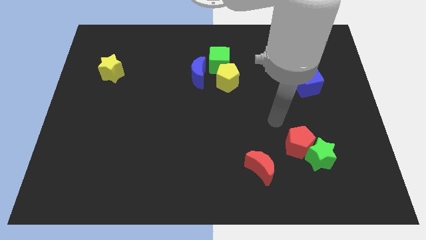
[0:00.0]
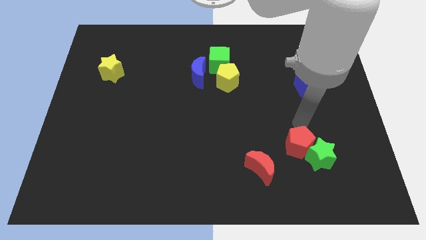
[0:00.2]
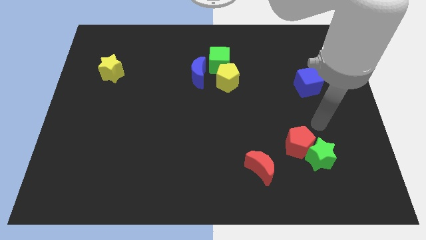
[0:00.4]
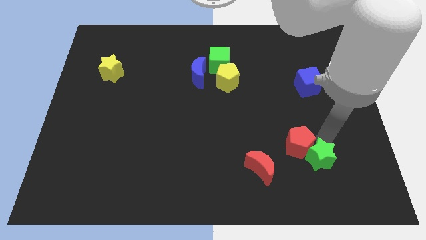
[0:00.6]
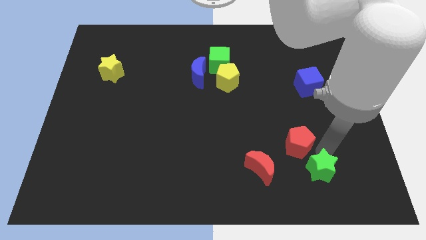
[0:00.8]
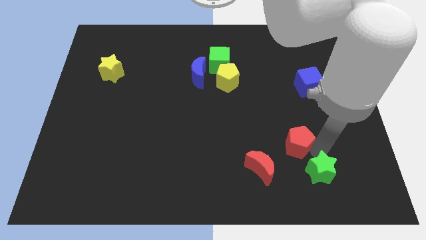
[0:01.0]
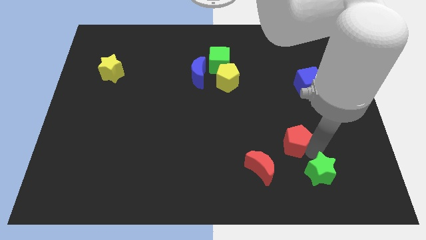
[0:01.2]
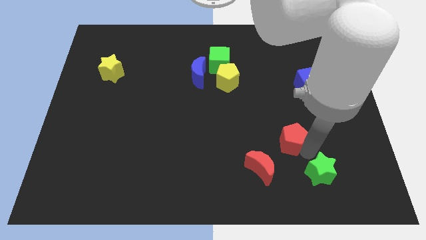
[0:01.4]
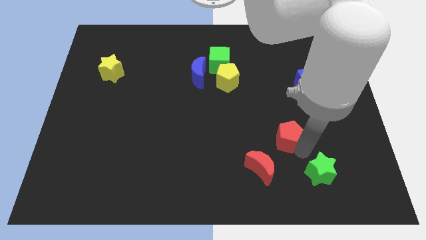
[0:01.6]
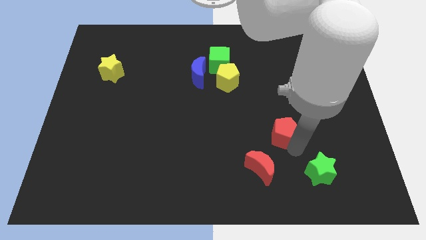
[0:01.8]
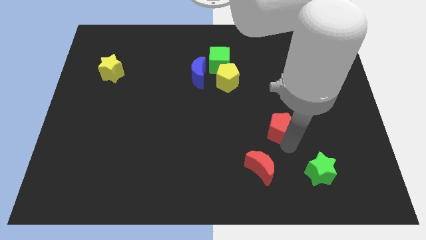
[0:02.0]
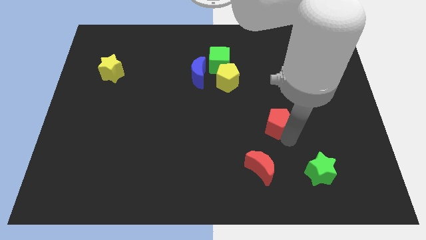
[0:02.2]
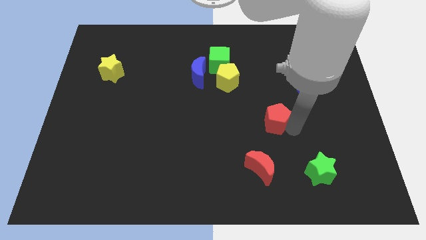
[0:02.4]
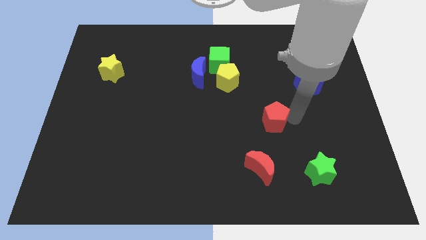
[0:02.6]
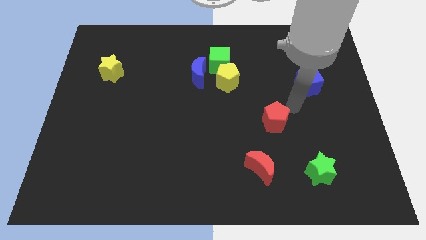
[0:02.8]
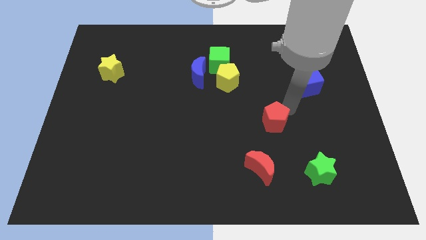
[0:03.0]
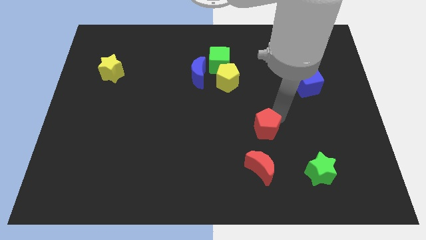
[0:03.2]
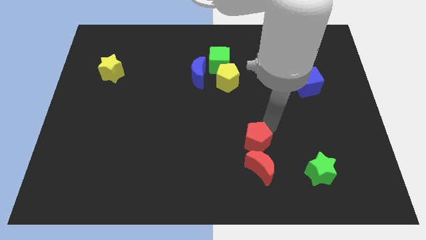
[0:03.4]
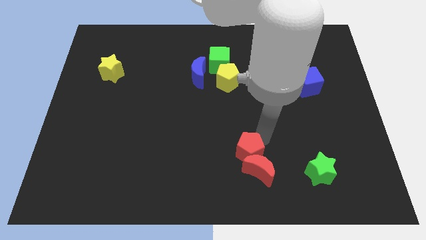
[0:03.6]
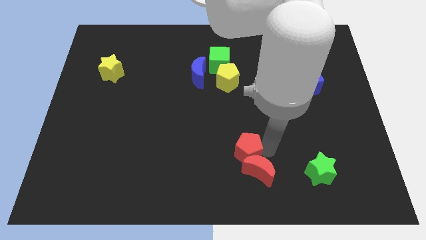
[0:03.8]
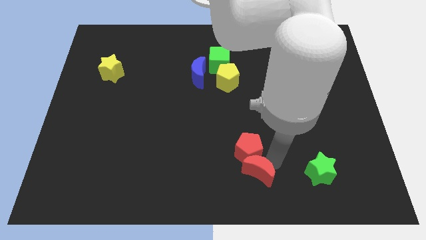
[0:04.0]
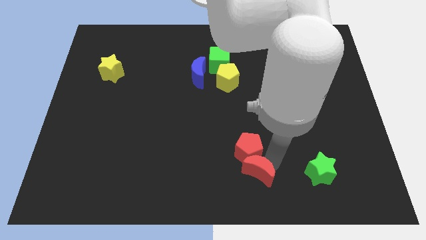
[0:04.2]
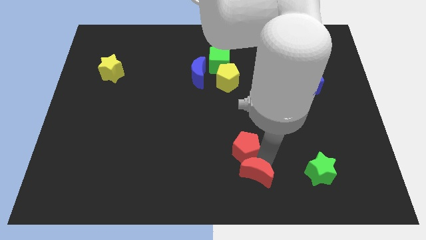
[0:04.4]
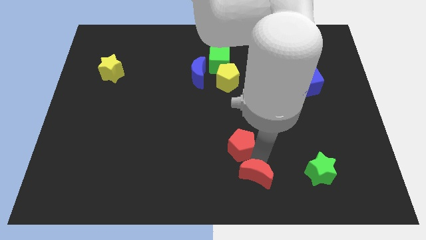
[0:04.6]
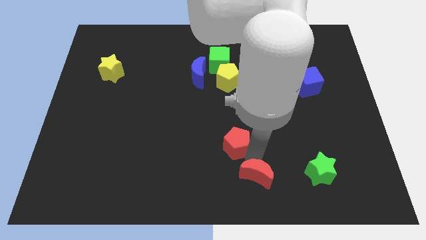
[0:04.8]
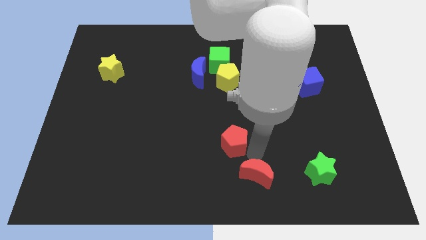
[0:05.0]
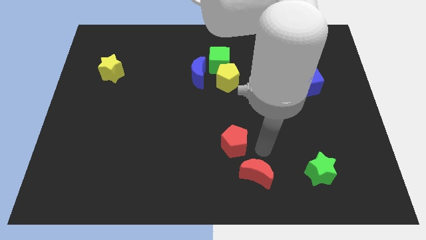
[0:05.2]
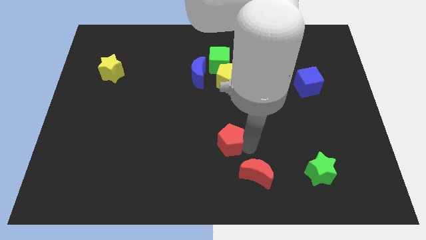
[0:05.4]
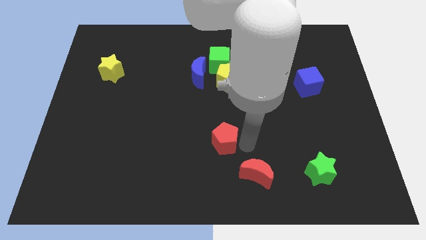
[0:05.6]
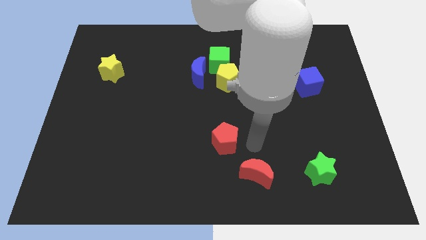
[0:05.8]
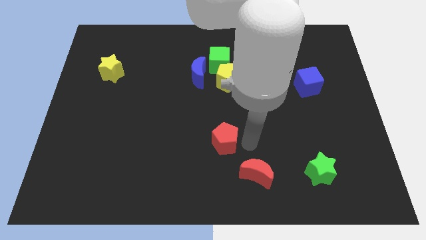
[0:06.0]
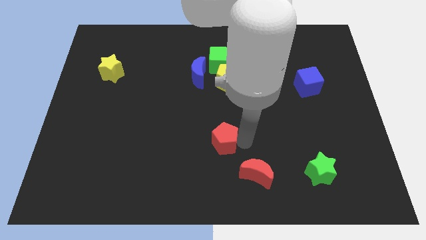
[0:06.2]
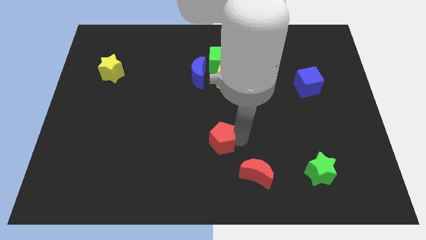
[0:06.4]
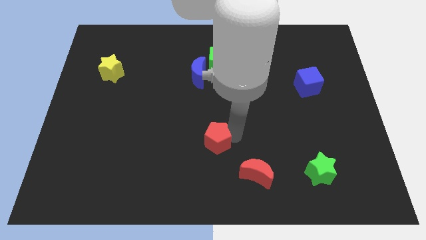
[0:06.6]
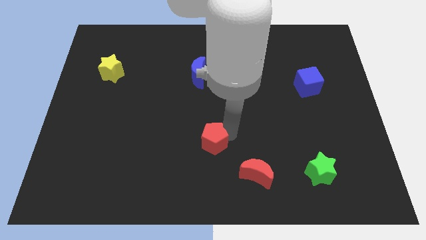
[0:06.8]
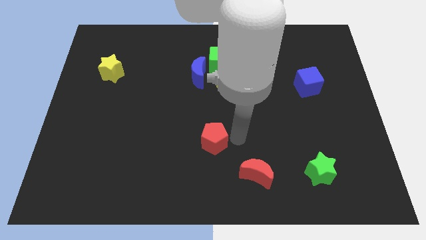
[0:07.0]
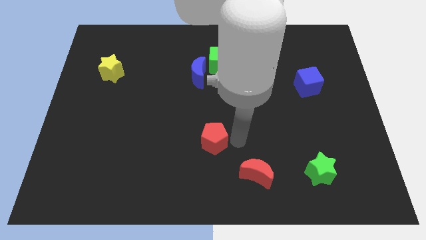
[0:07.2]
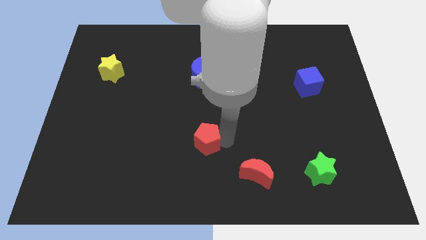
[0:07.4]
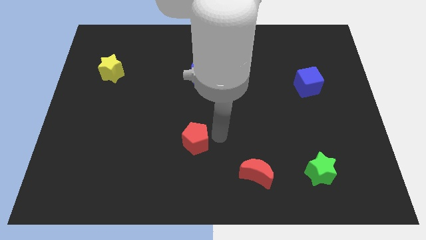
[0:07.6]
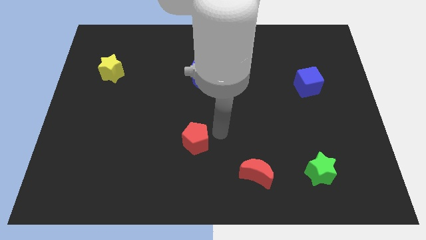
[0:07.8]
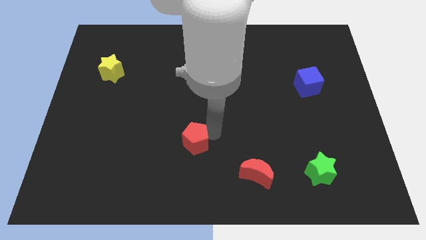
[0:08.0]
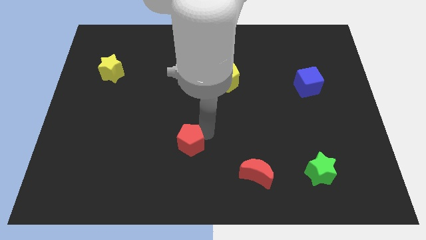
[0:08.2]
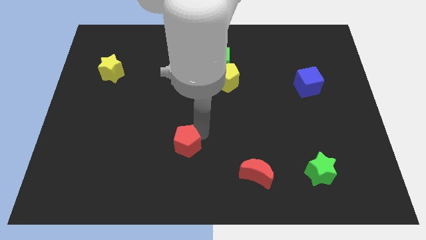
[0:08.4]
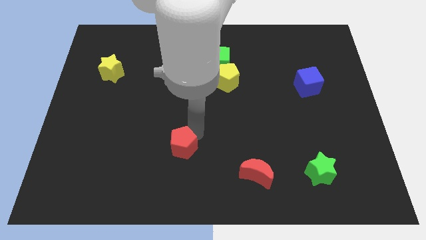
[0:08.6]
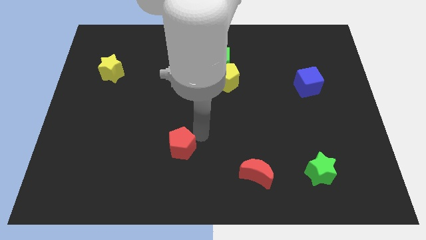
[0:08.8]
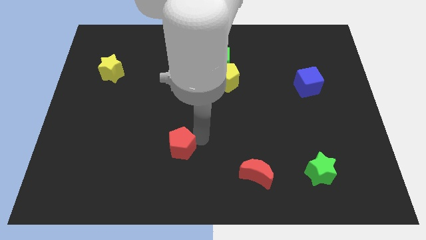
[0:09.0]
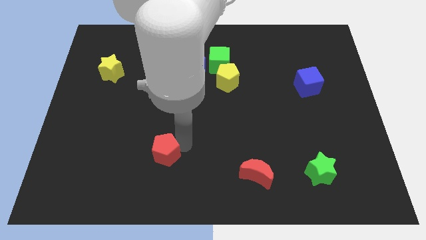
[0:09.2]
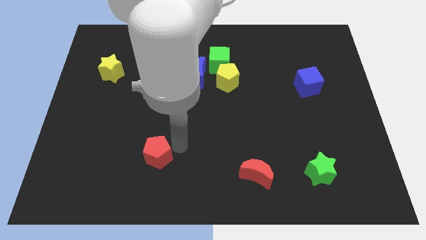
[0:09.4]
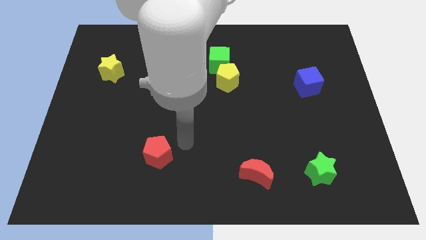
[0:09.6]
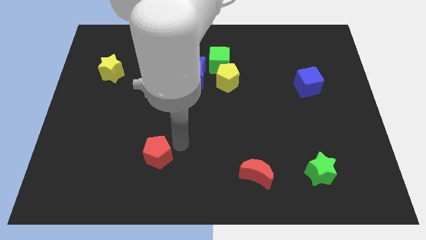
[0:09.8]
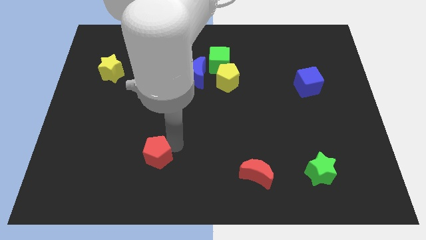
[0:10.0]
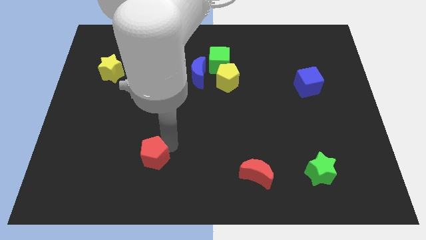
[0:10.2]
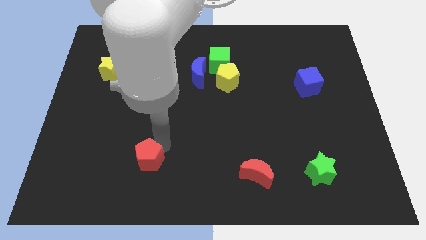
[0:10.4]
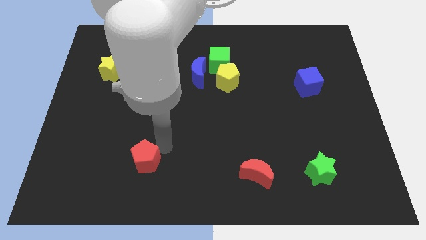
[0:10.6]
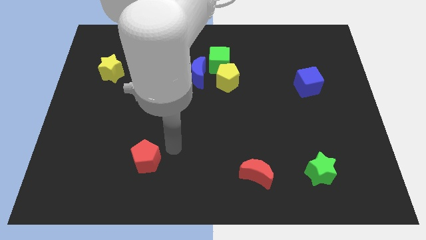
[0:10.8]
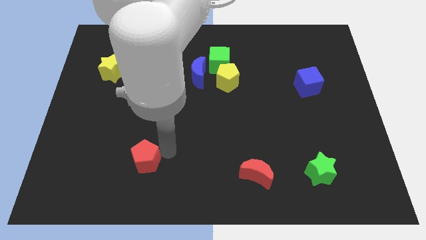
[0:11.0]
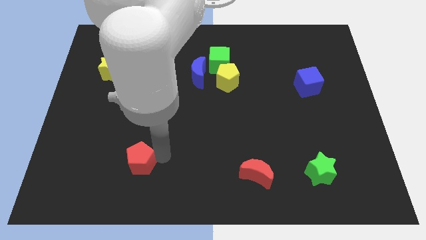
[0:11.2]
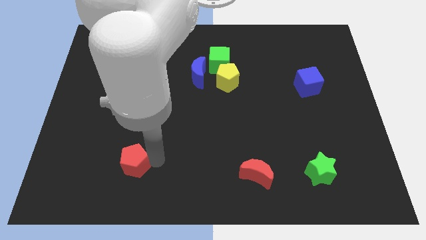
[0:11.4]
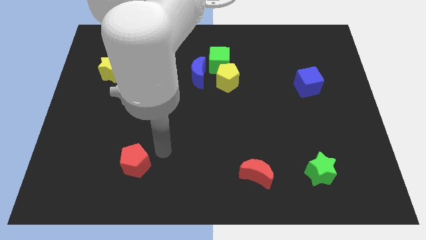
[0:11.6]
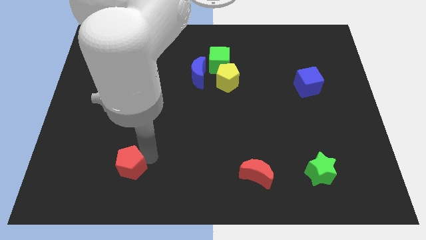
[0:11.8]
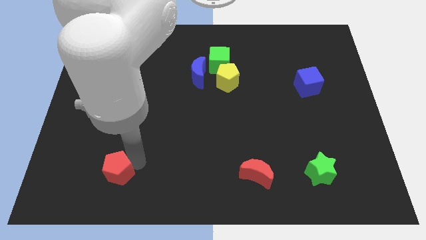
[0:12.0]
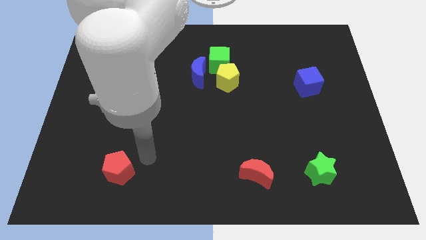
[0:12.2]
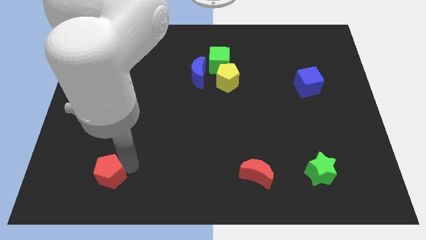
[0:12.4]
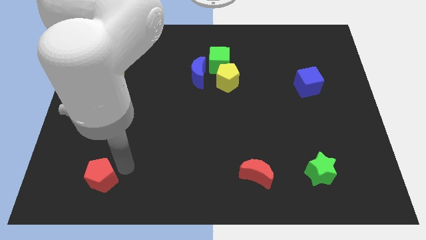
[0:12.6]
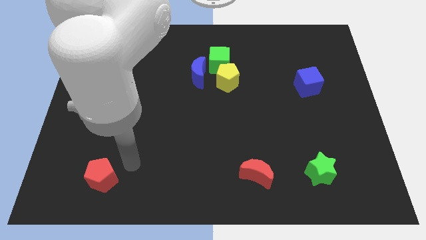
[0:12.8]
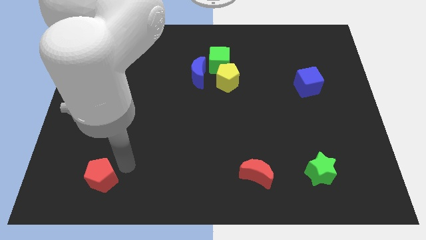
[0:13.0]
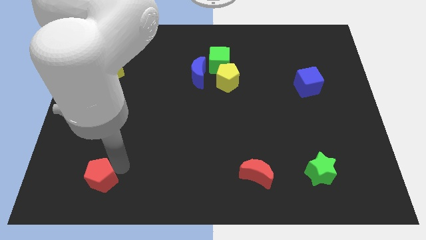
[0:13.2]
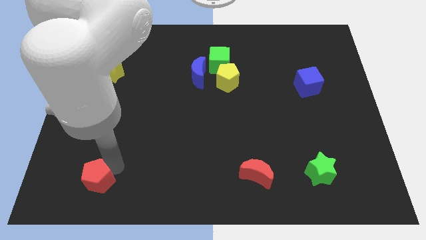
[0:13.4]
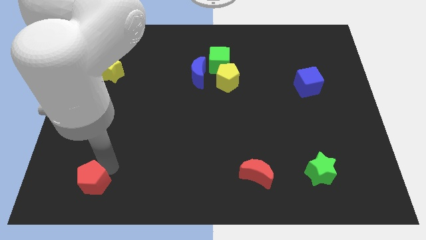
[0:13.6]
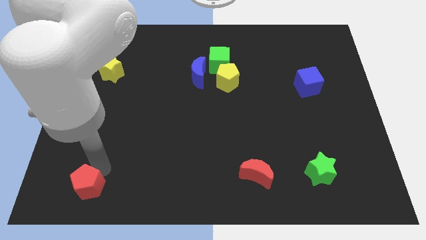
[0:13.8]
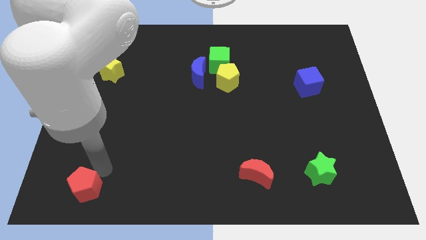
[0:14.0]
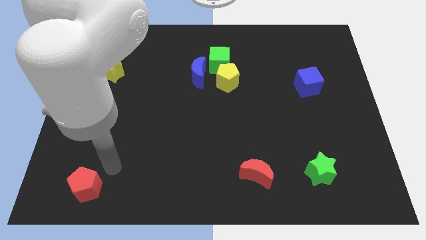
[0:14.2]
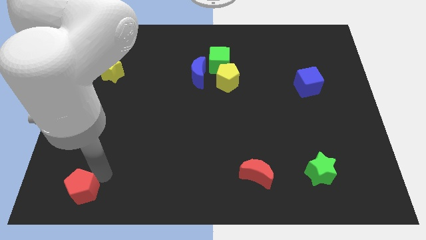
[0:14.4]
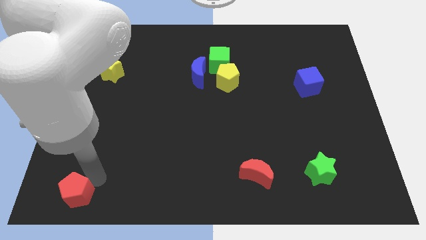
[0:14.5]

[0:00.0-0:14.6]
push the red pentagon to the bottom left of the board
